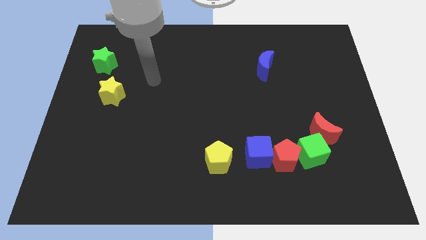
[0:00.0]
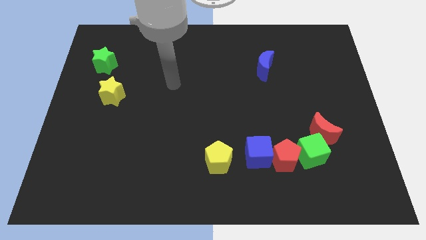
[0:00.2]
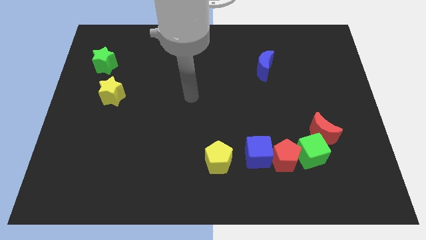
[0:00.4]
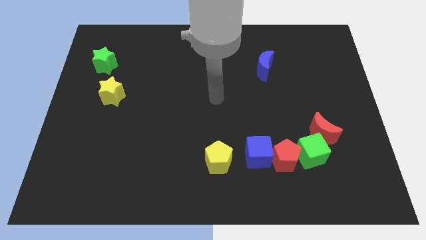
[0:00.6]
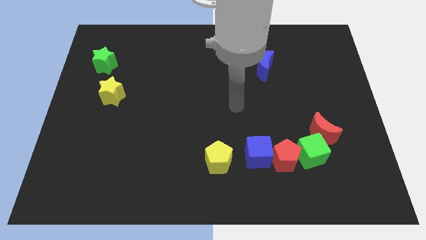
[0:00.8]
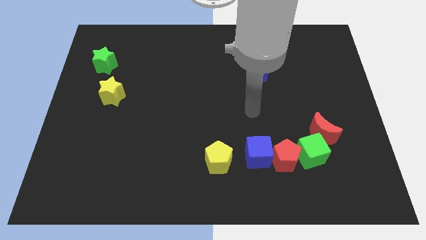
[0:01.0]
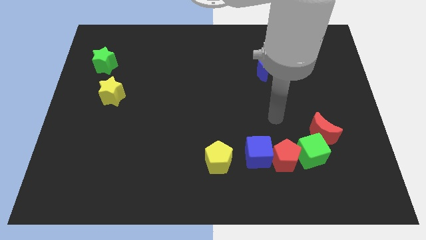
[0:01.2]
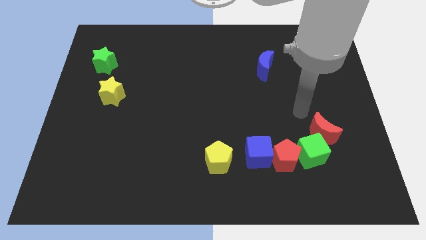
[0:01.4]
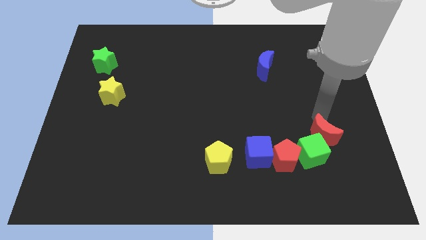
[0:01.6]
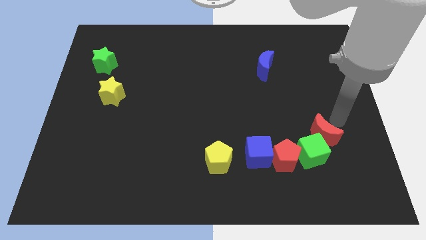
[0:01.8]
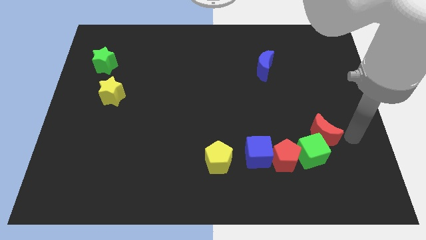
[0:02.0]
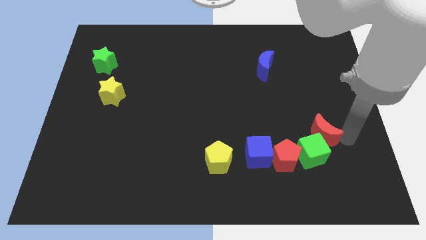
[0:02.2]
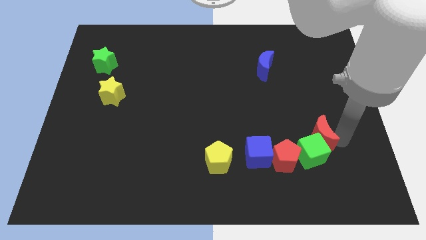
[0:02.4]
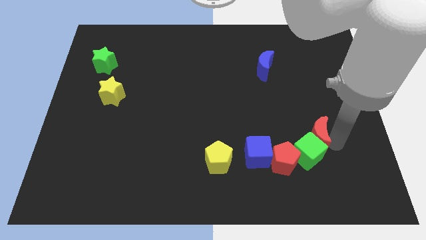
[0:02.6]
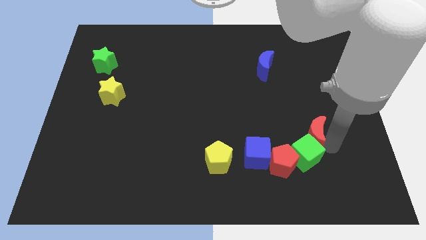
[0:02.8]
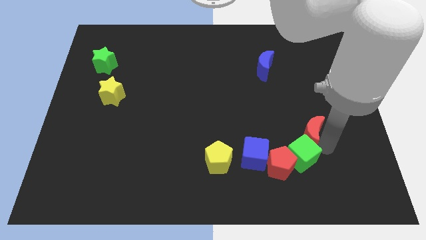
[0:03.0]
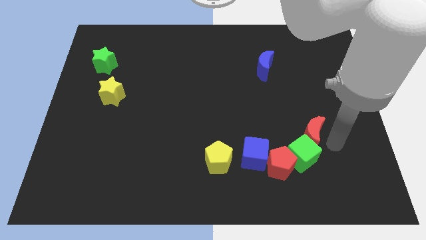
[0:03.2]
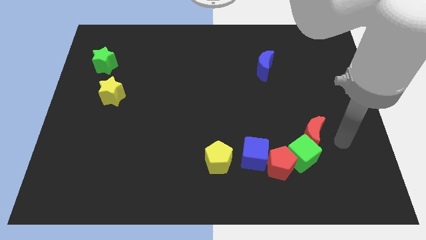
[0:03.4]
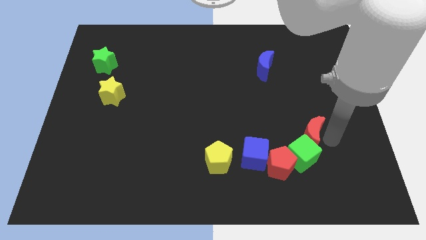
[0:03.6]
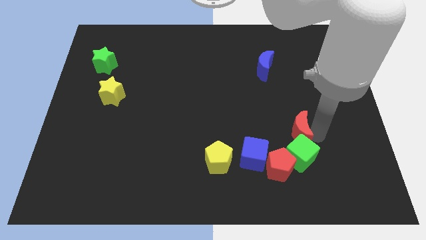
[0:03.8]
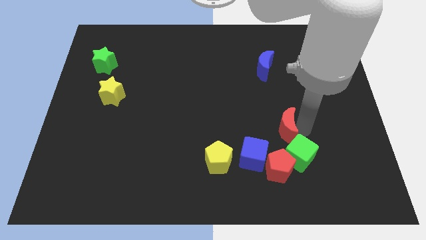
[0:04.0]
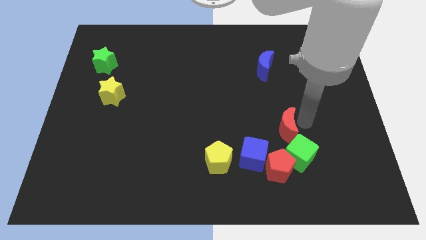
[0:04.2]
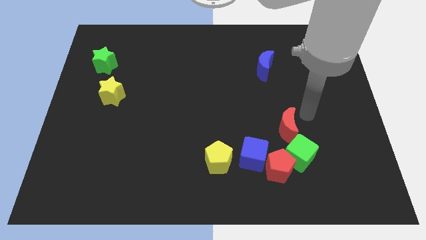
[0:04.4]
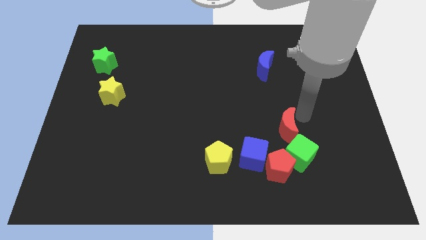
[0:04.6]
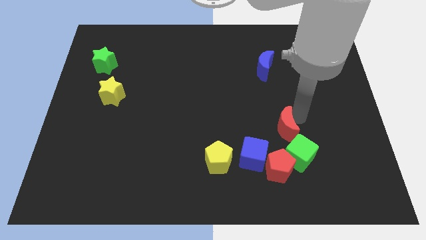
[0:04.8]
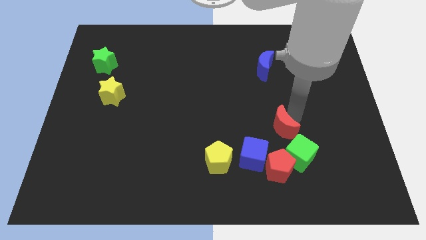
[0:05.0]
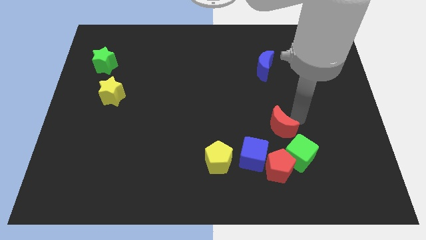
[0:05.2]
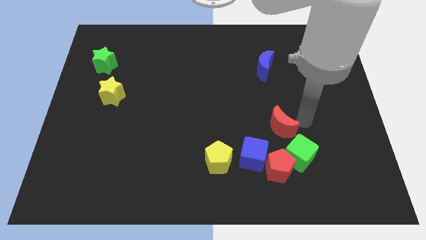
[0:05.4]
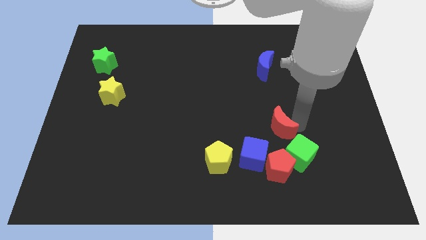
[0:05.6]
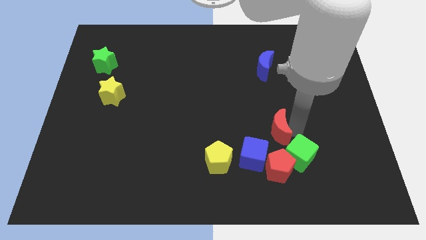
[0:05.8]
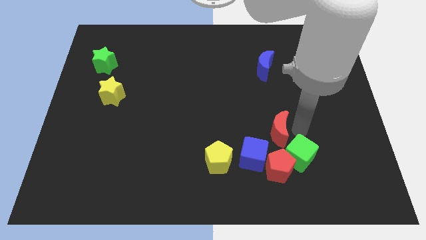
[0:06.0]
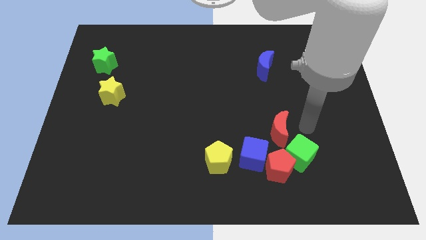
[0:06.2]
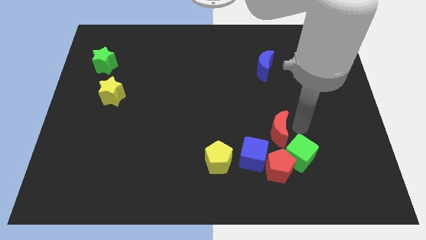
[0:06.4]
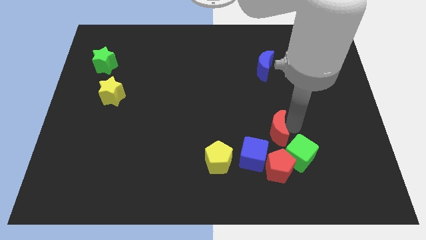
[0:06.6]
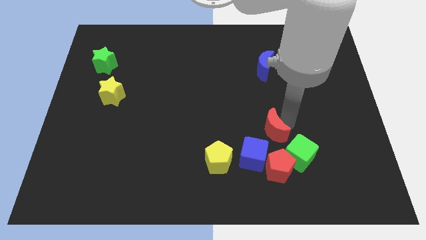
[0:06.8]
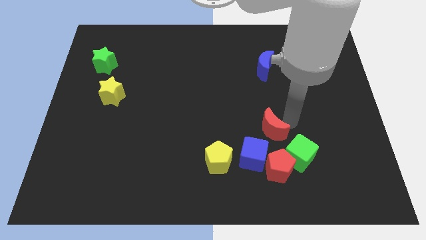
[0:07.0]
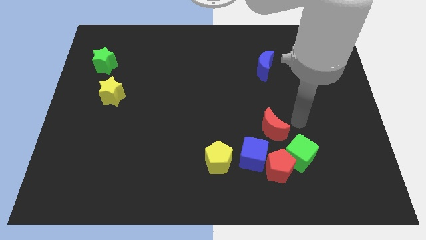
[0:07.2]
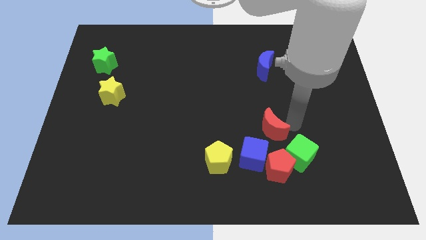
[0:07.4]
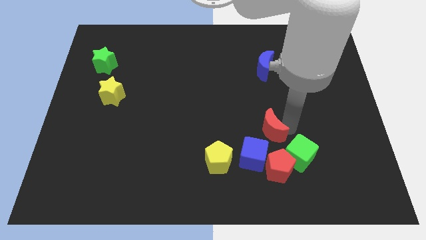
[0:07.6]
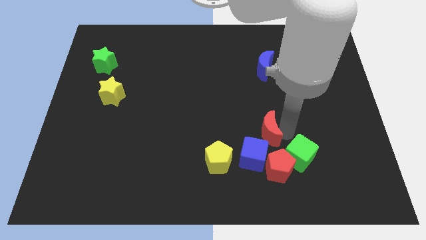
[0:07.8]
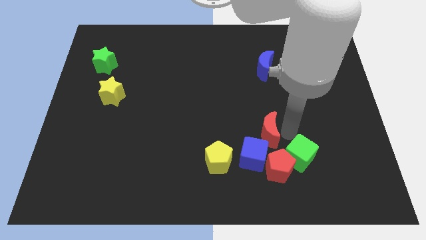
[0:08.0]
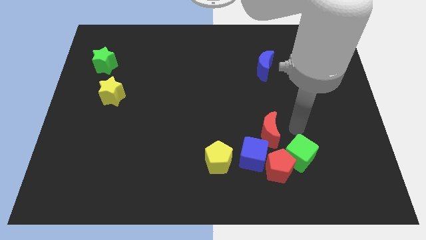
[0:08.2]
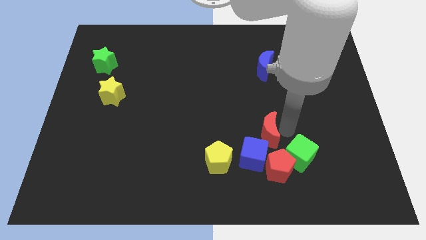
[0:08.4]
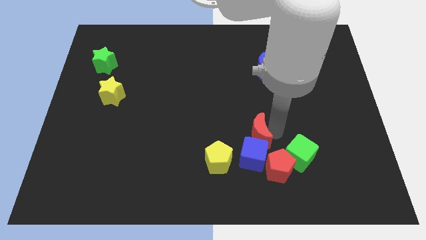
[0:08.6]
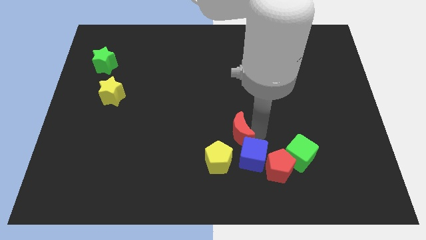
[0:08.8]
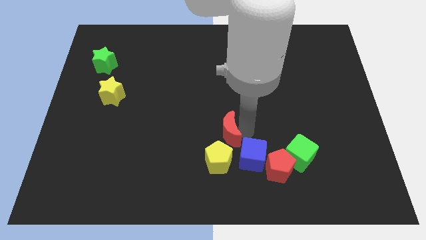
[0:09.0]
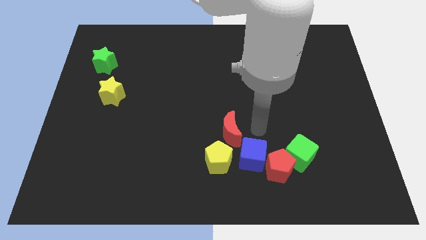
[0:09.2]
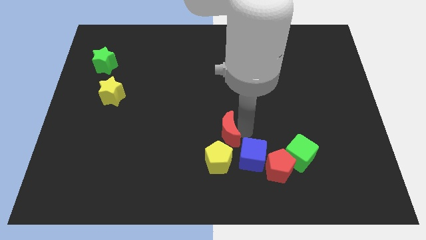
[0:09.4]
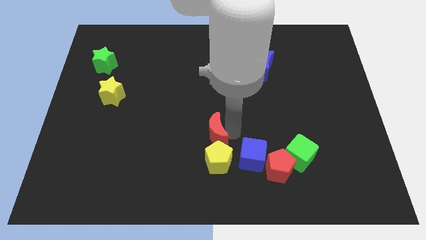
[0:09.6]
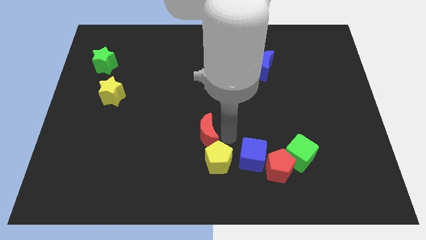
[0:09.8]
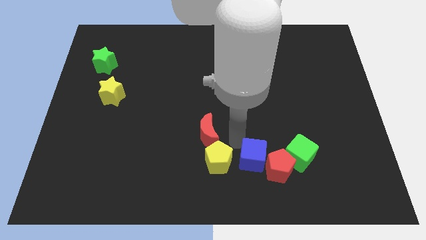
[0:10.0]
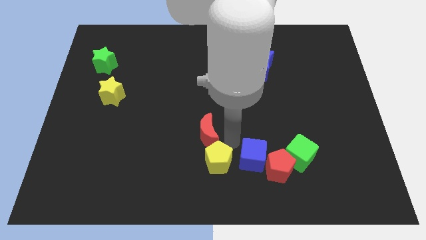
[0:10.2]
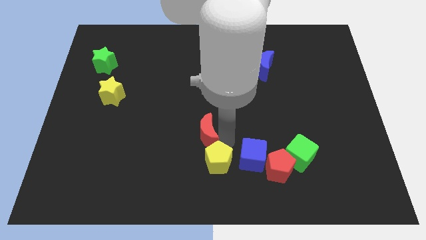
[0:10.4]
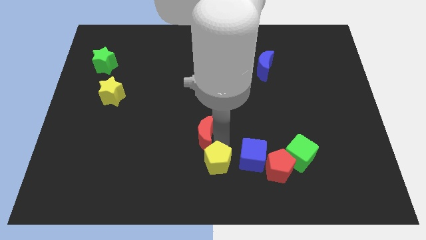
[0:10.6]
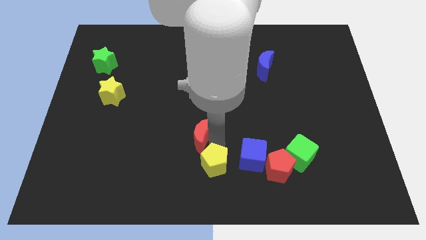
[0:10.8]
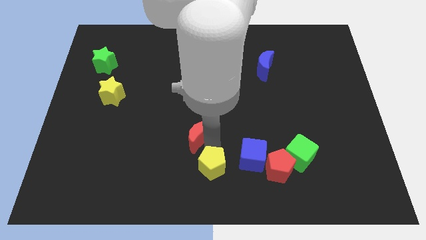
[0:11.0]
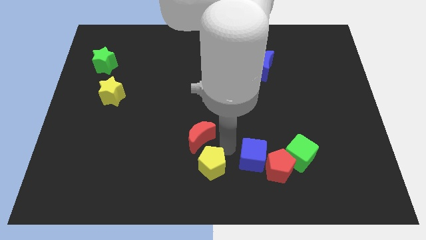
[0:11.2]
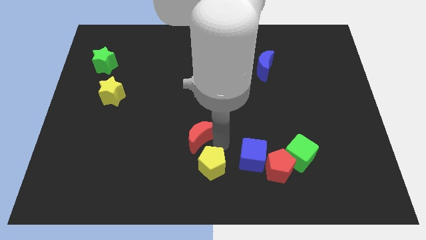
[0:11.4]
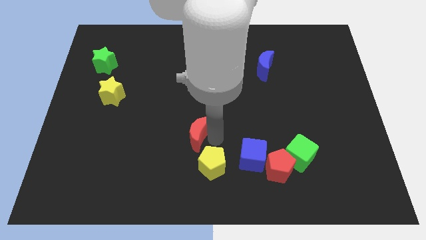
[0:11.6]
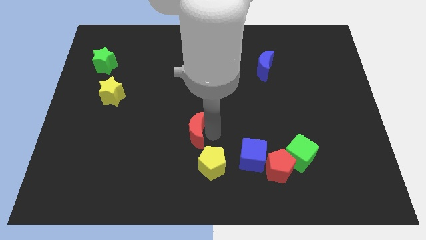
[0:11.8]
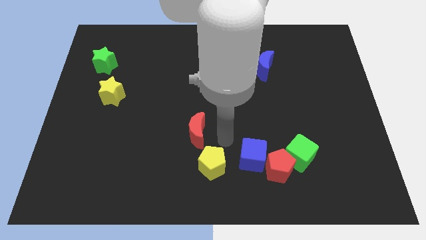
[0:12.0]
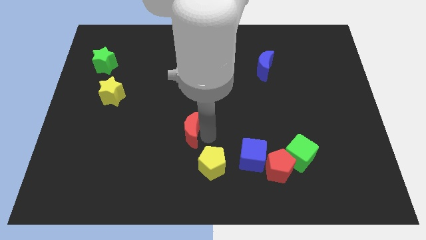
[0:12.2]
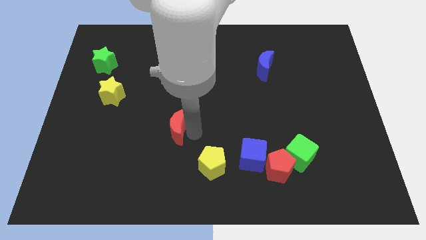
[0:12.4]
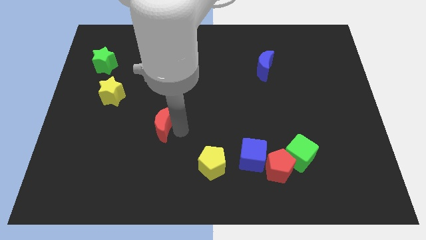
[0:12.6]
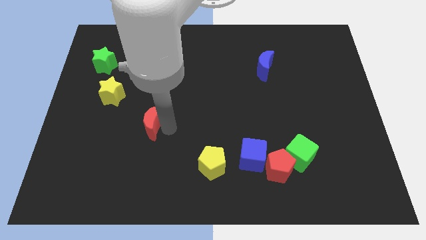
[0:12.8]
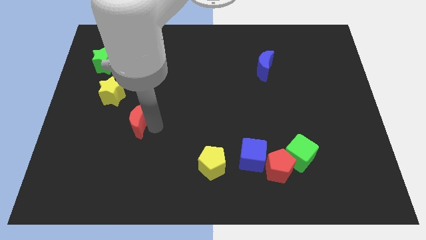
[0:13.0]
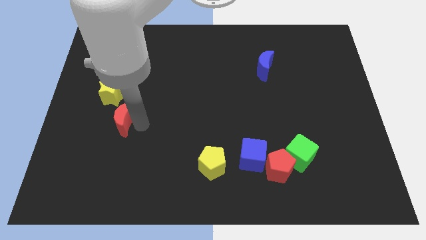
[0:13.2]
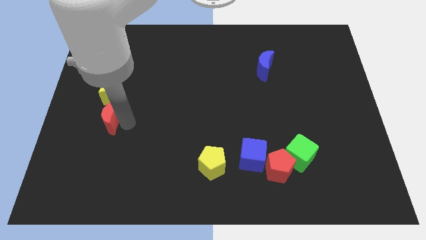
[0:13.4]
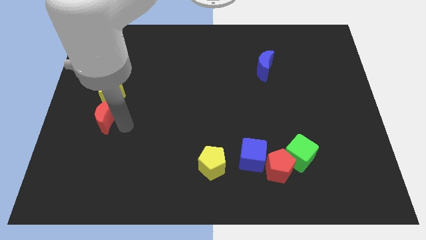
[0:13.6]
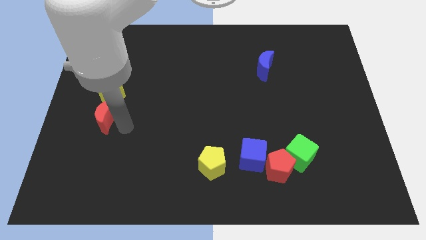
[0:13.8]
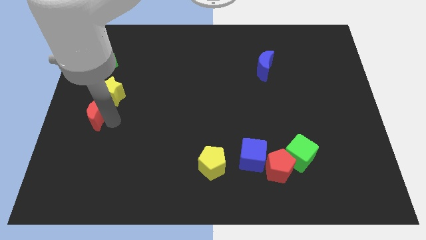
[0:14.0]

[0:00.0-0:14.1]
push the red moon to the center left

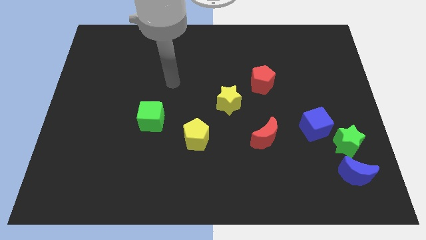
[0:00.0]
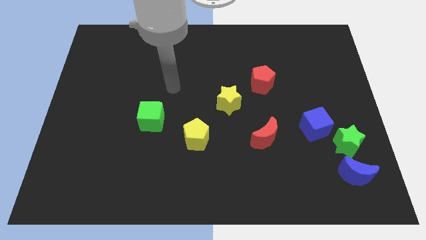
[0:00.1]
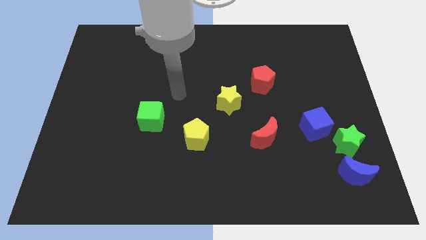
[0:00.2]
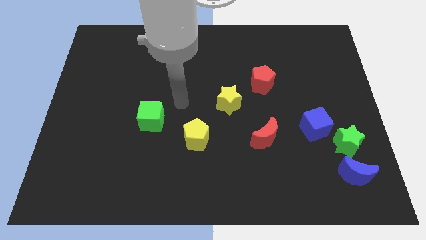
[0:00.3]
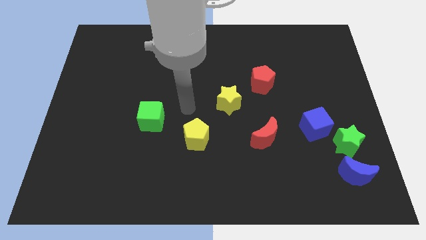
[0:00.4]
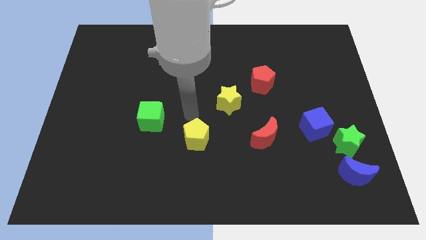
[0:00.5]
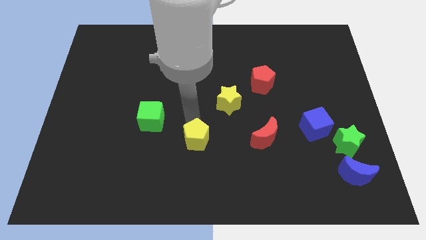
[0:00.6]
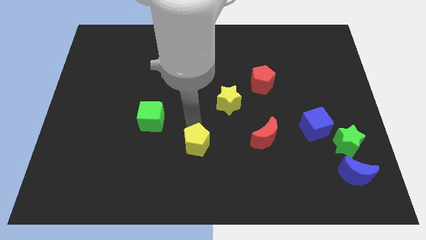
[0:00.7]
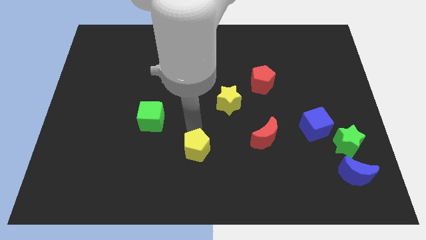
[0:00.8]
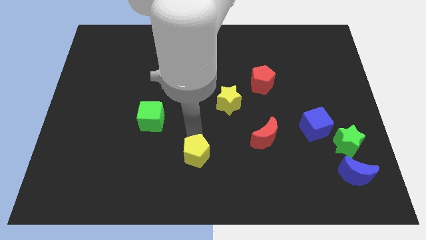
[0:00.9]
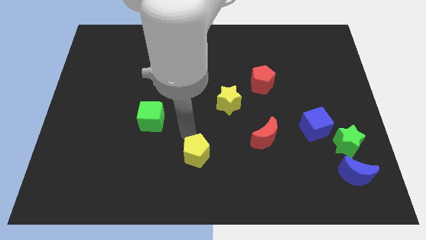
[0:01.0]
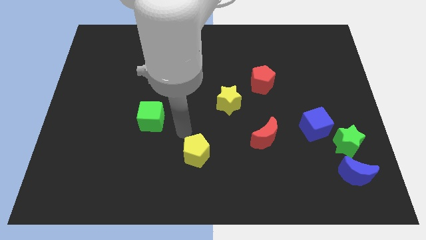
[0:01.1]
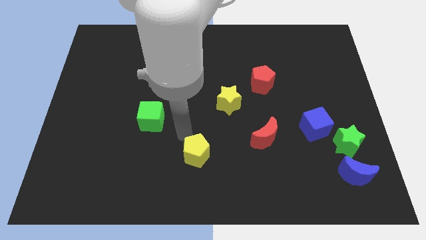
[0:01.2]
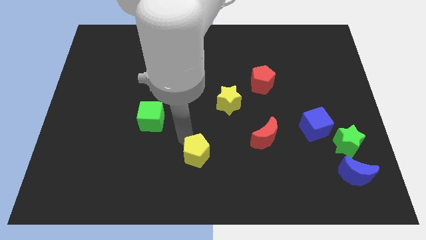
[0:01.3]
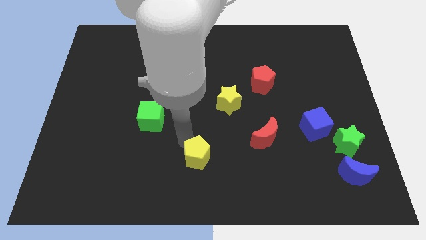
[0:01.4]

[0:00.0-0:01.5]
move the yellow pentagon to the bottom
